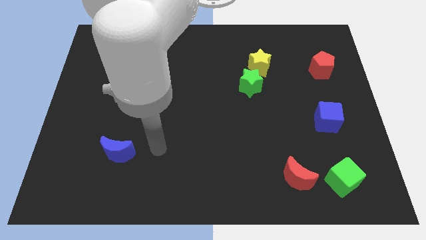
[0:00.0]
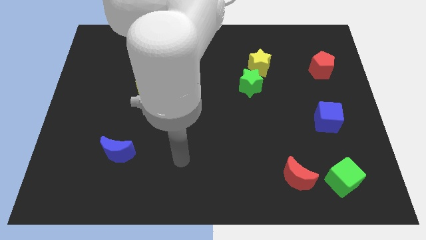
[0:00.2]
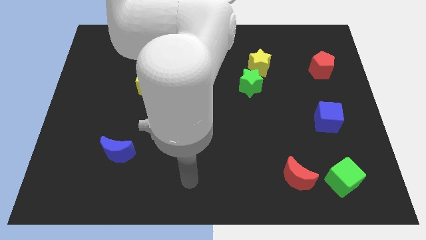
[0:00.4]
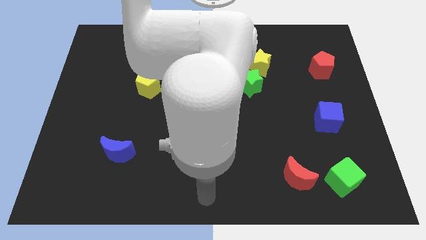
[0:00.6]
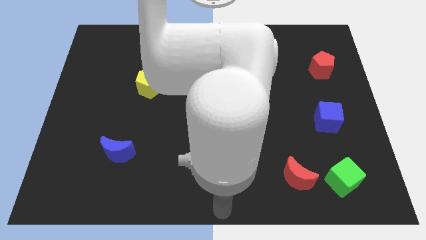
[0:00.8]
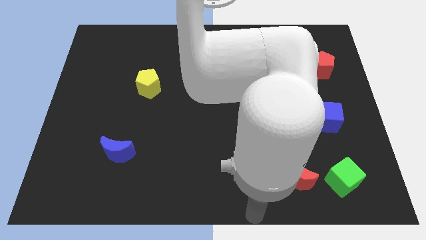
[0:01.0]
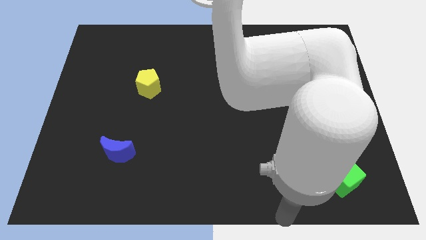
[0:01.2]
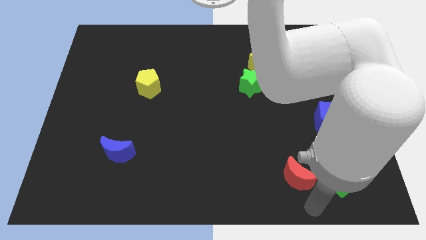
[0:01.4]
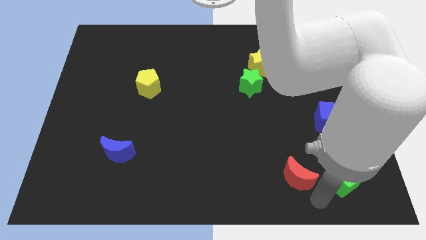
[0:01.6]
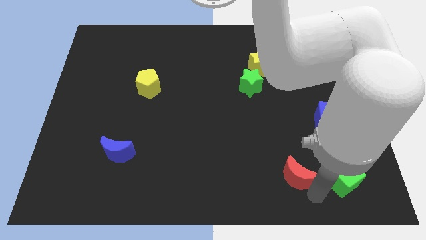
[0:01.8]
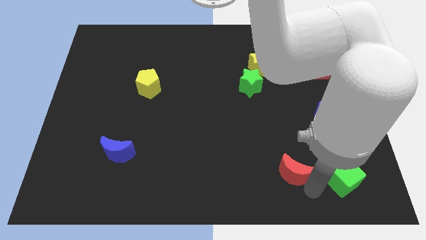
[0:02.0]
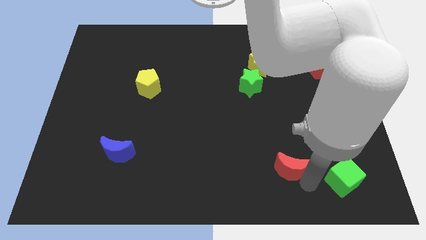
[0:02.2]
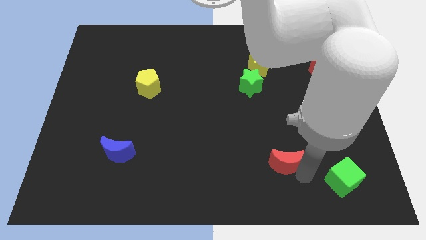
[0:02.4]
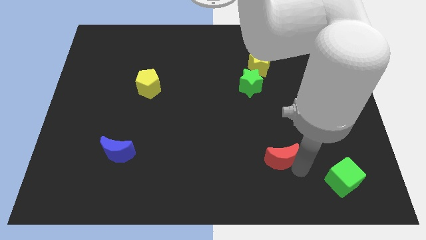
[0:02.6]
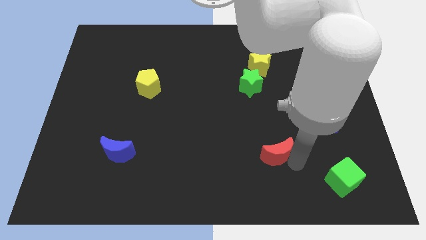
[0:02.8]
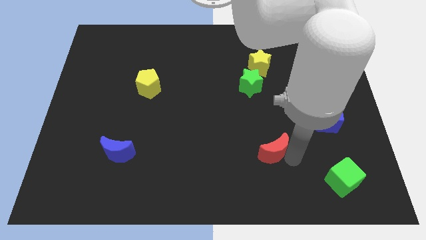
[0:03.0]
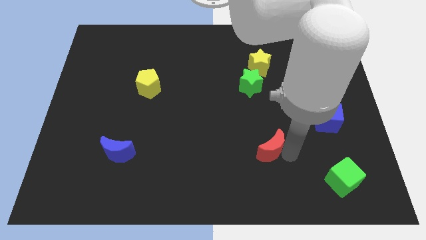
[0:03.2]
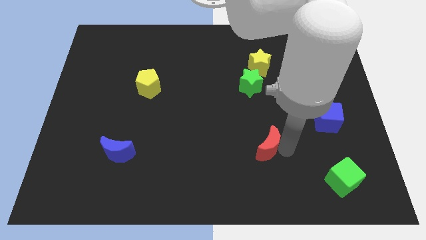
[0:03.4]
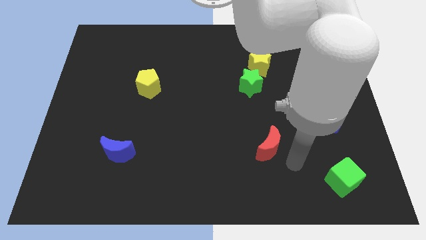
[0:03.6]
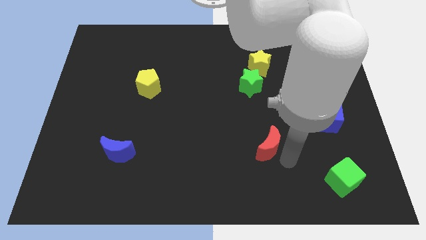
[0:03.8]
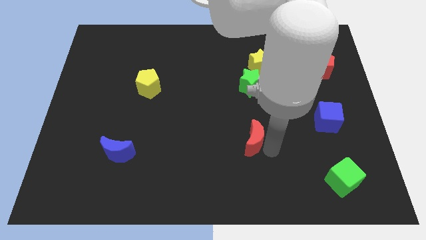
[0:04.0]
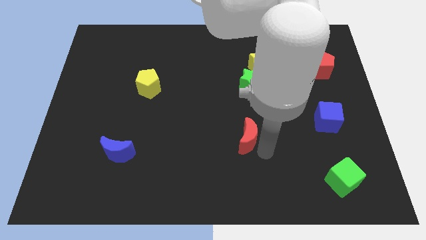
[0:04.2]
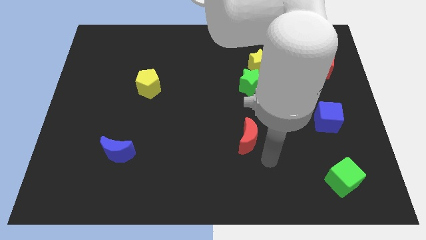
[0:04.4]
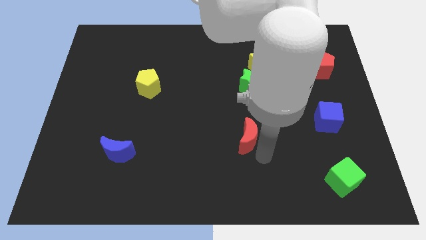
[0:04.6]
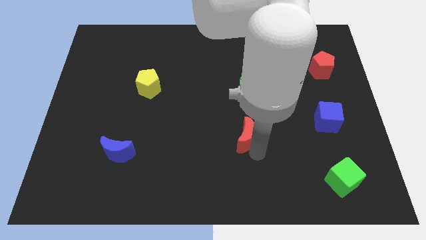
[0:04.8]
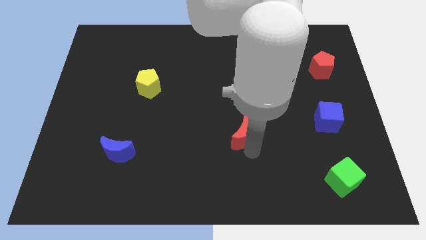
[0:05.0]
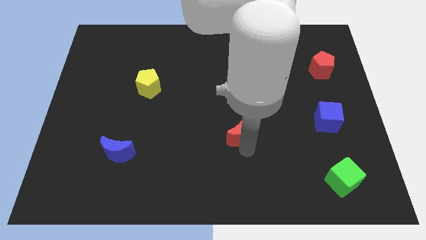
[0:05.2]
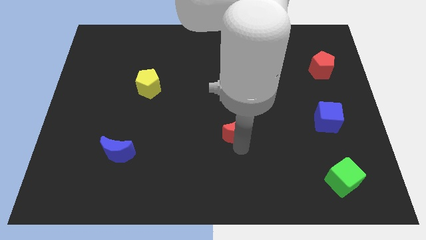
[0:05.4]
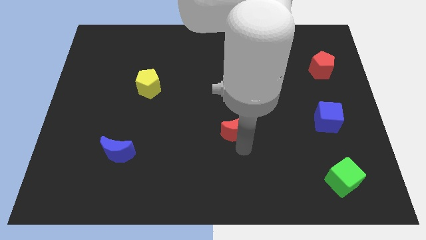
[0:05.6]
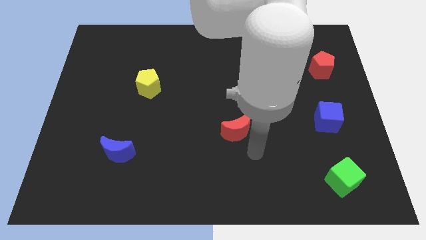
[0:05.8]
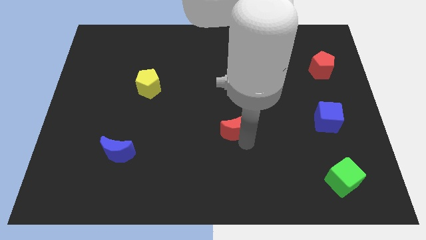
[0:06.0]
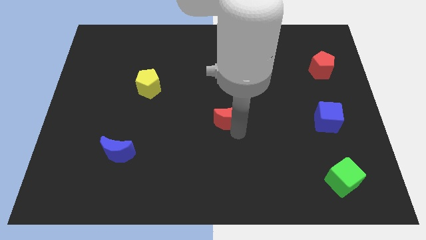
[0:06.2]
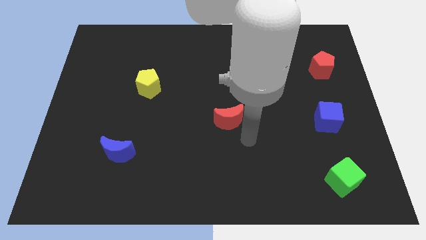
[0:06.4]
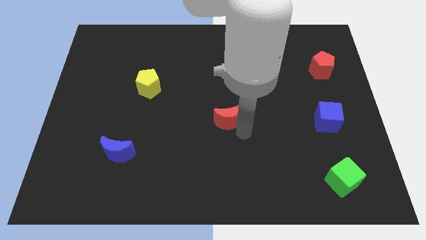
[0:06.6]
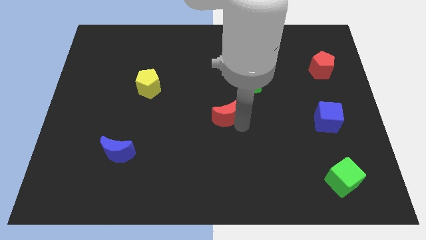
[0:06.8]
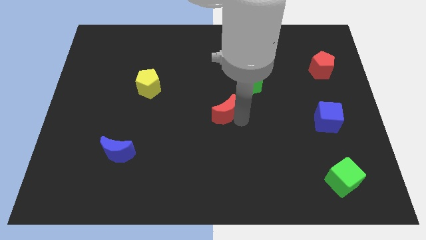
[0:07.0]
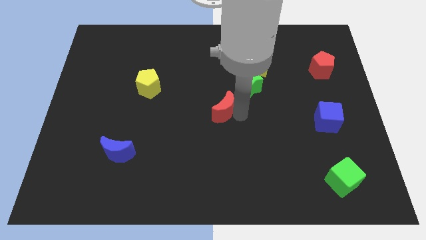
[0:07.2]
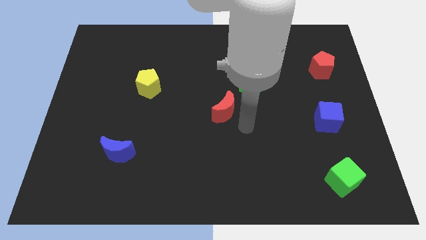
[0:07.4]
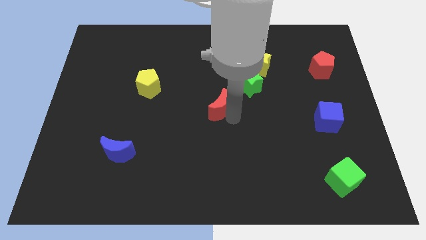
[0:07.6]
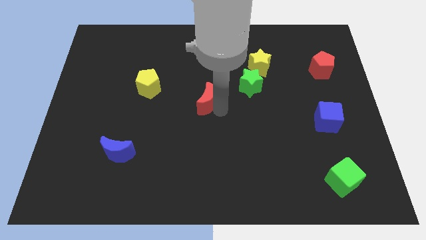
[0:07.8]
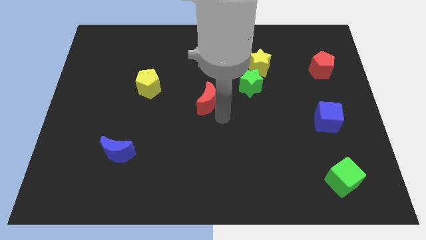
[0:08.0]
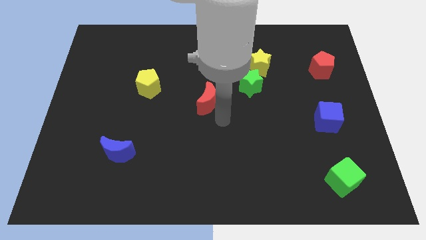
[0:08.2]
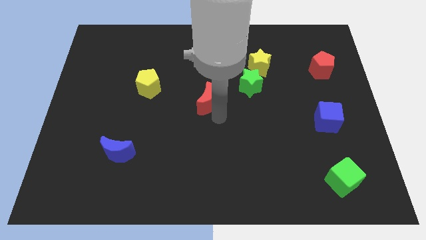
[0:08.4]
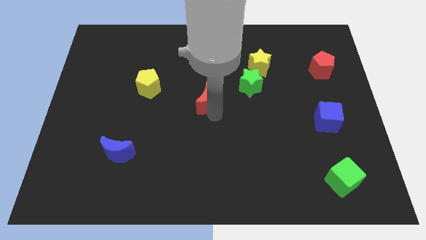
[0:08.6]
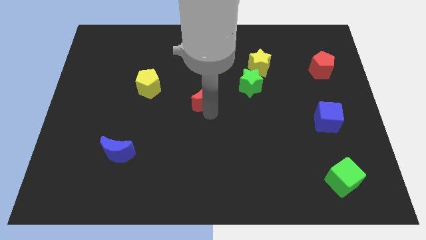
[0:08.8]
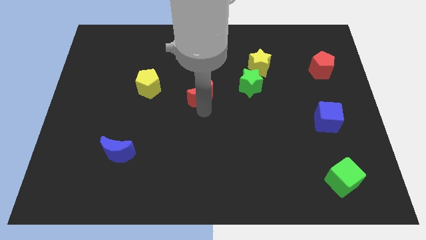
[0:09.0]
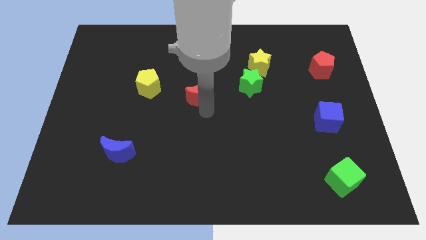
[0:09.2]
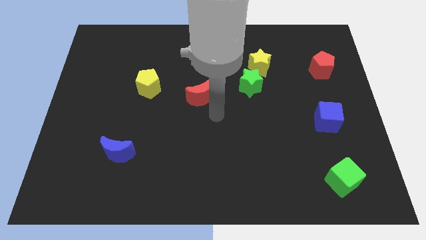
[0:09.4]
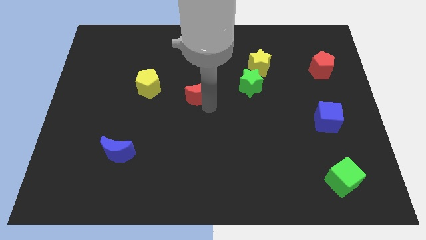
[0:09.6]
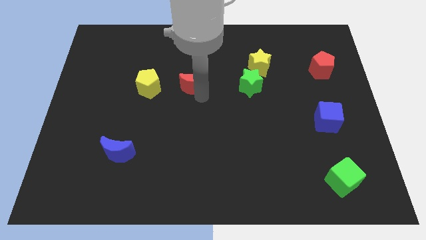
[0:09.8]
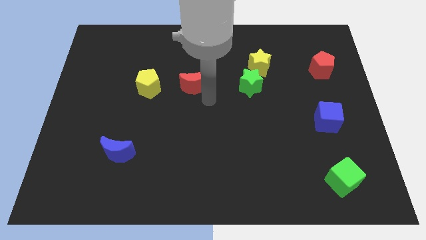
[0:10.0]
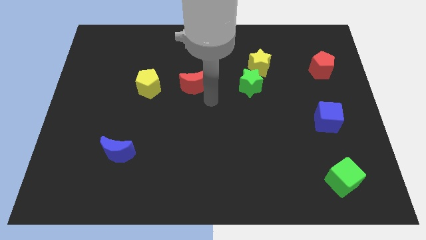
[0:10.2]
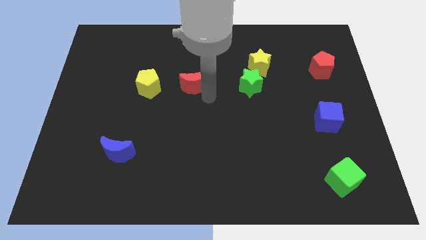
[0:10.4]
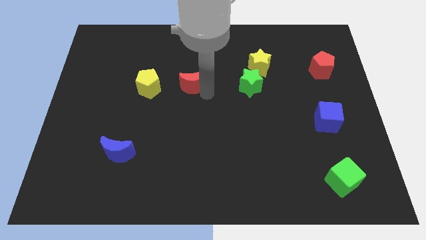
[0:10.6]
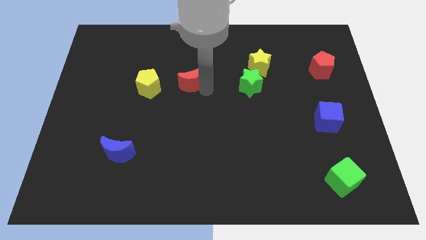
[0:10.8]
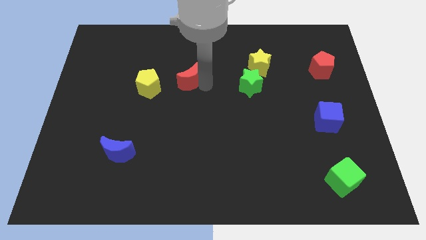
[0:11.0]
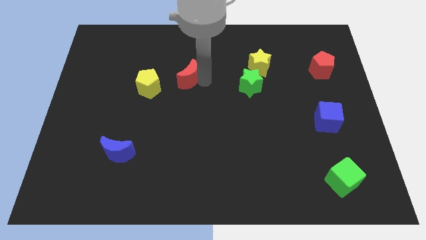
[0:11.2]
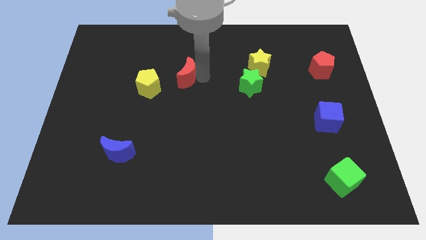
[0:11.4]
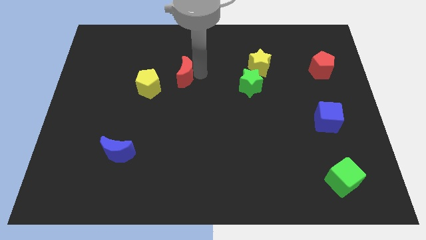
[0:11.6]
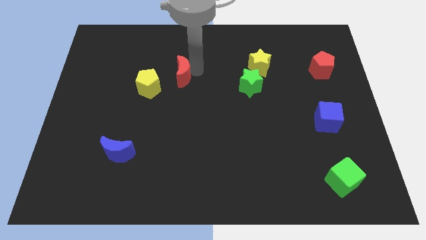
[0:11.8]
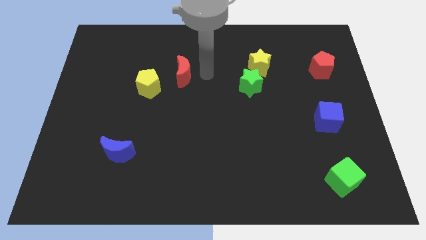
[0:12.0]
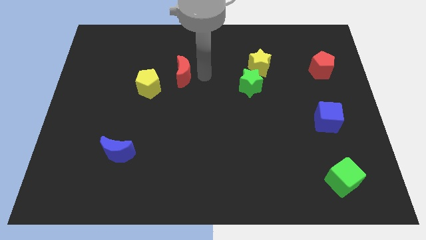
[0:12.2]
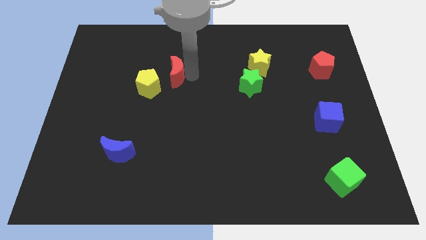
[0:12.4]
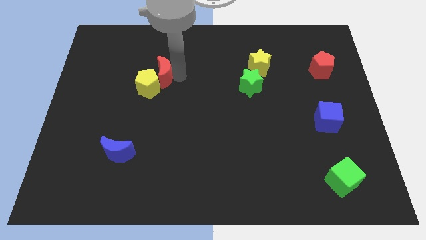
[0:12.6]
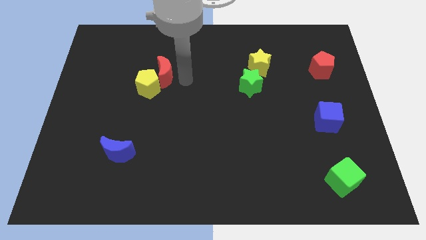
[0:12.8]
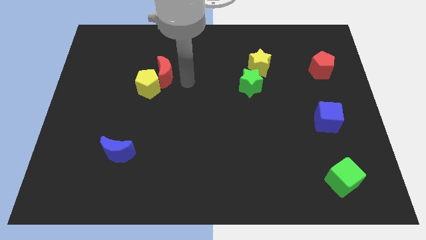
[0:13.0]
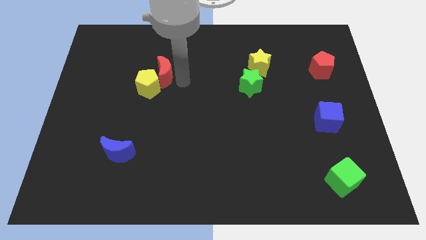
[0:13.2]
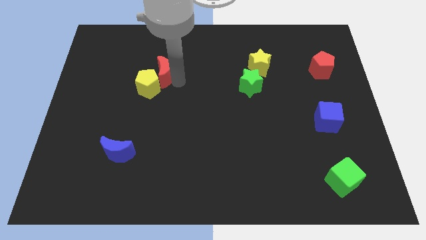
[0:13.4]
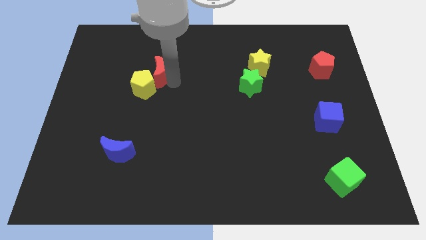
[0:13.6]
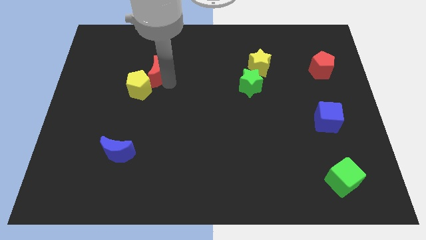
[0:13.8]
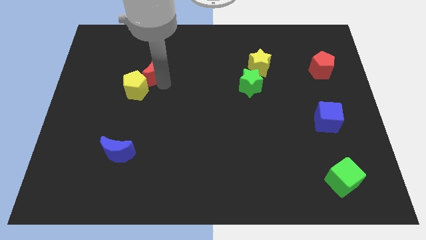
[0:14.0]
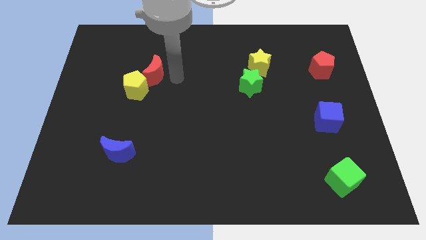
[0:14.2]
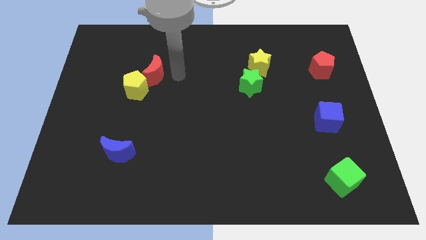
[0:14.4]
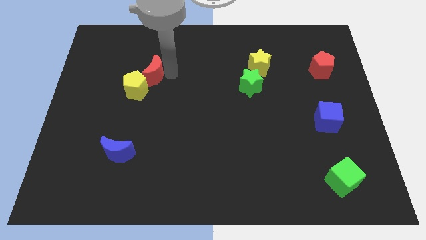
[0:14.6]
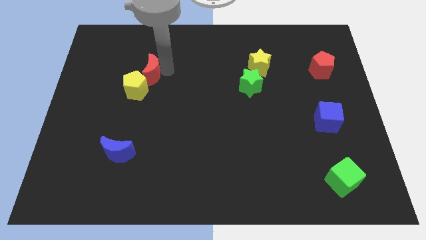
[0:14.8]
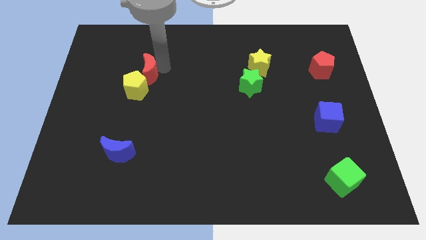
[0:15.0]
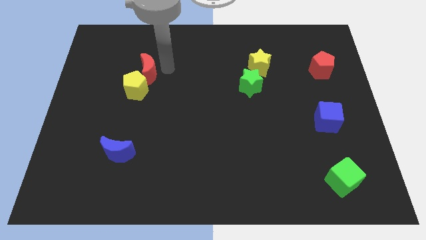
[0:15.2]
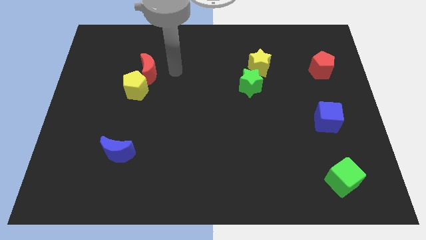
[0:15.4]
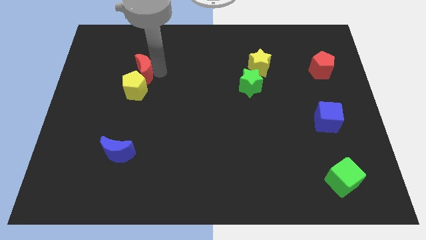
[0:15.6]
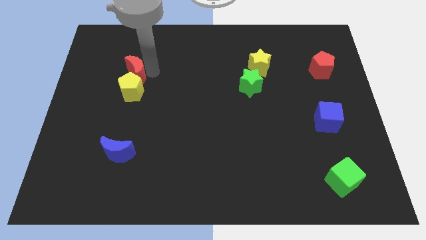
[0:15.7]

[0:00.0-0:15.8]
put the red moon to the top left of the yellow pentagon
